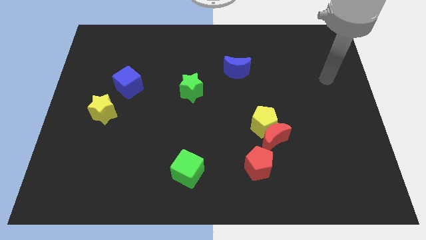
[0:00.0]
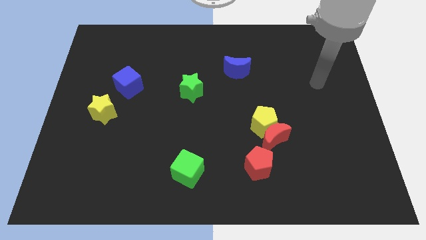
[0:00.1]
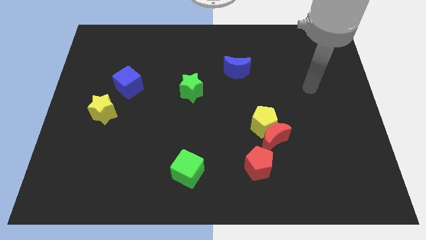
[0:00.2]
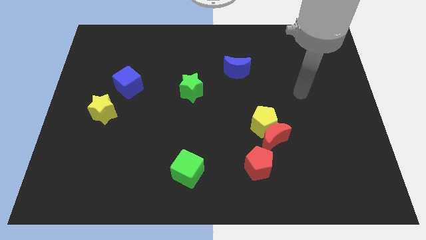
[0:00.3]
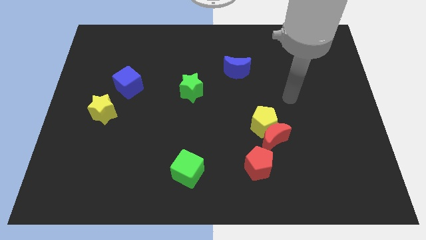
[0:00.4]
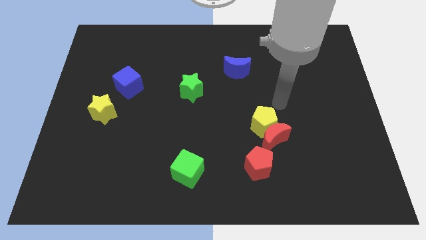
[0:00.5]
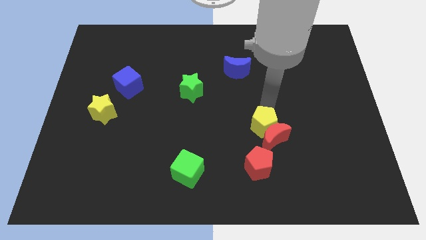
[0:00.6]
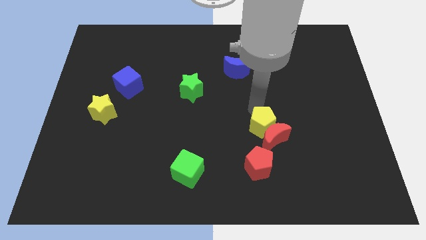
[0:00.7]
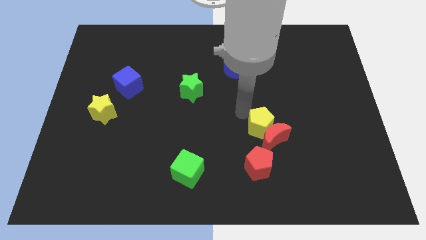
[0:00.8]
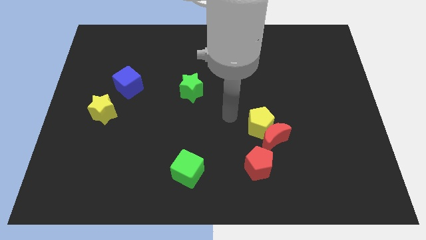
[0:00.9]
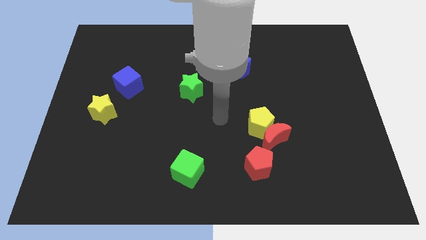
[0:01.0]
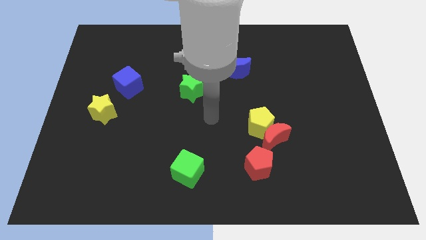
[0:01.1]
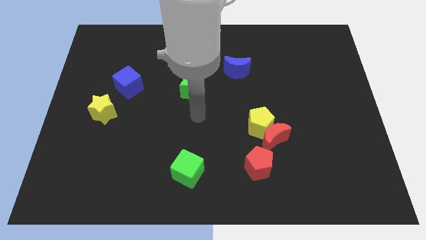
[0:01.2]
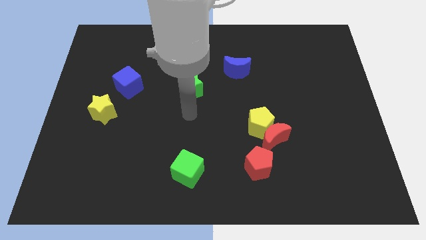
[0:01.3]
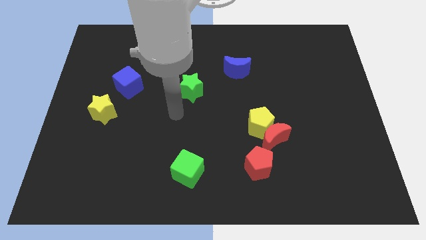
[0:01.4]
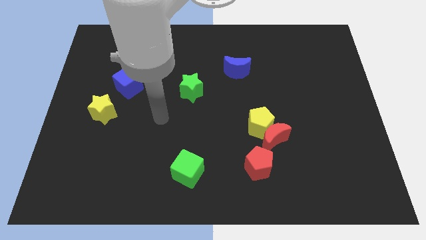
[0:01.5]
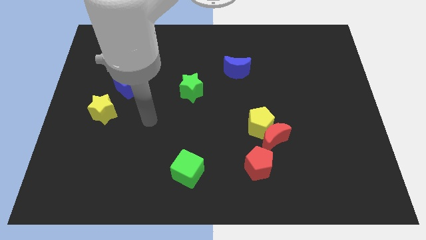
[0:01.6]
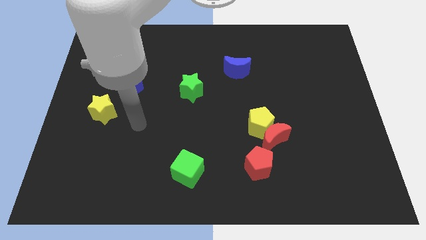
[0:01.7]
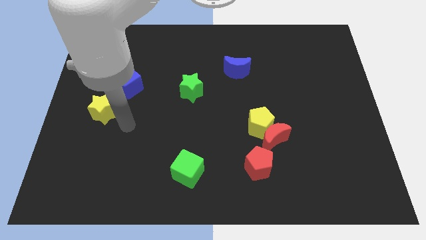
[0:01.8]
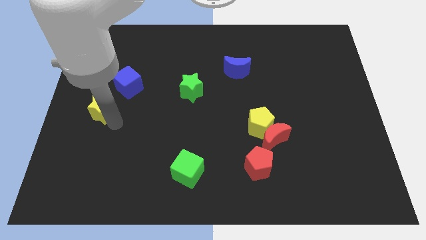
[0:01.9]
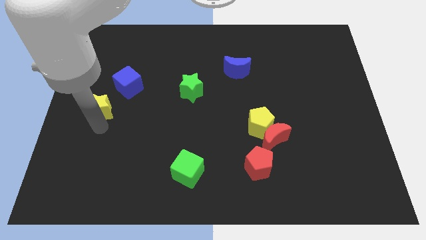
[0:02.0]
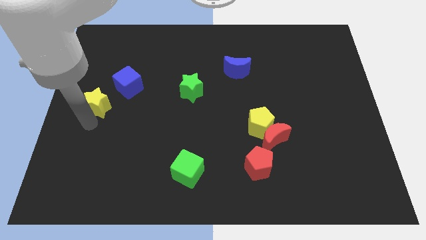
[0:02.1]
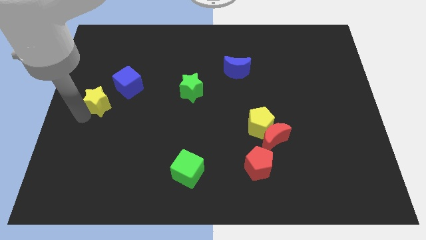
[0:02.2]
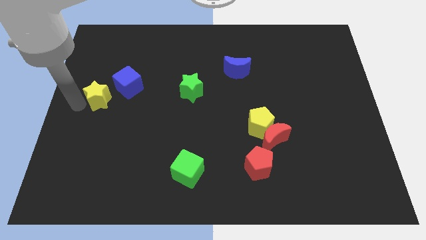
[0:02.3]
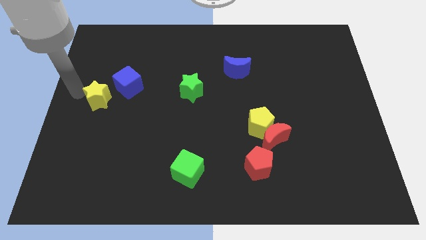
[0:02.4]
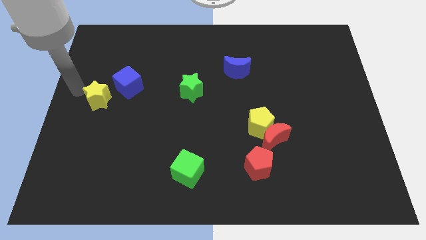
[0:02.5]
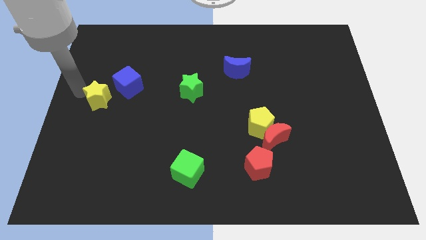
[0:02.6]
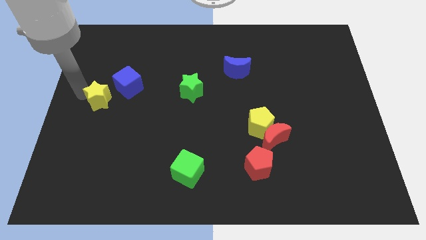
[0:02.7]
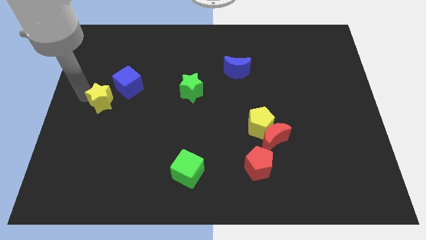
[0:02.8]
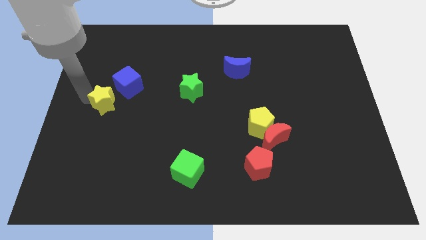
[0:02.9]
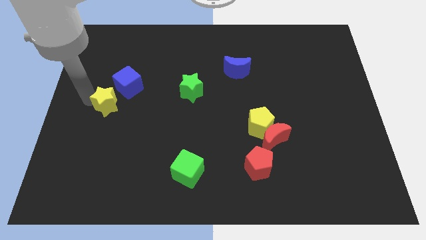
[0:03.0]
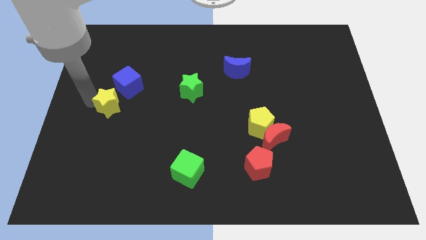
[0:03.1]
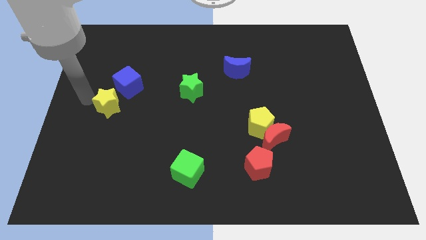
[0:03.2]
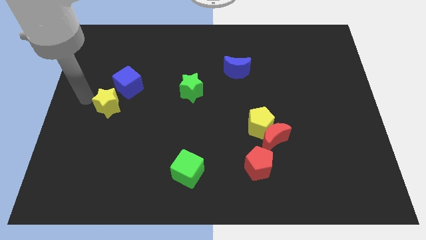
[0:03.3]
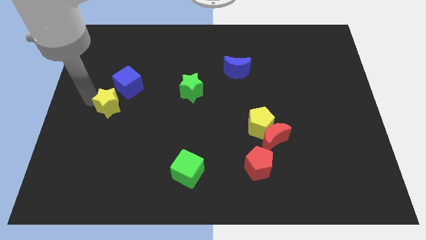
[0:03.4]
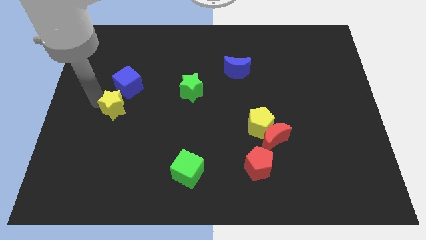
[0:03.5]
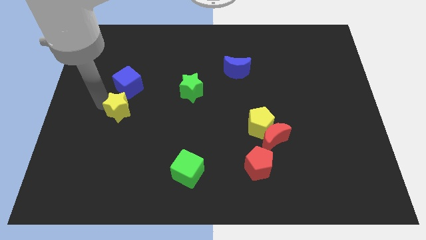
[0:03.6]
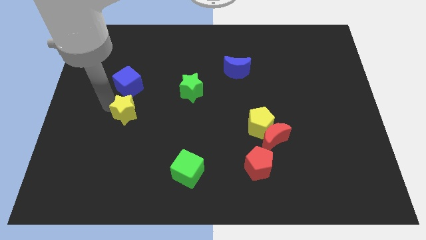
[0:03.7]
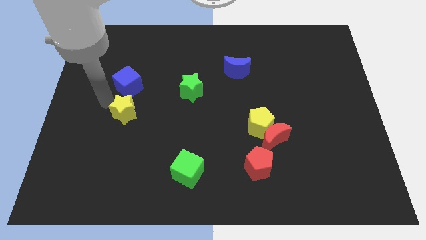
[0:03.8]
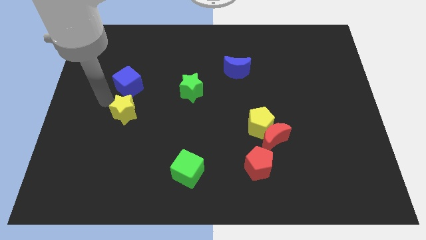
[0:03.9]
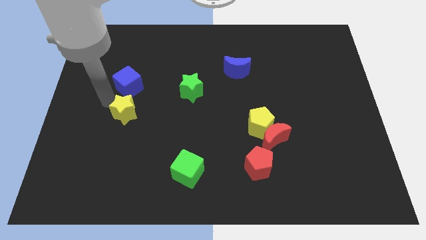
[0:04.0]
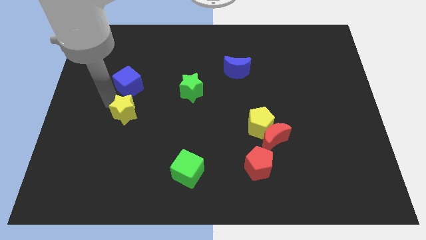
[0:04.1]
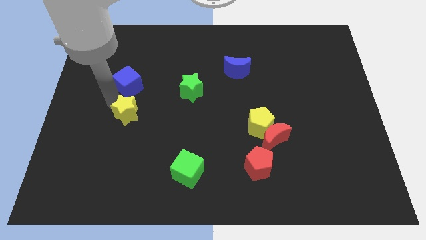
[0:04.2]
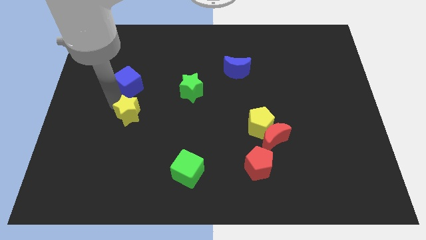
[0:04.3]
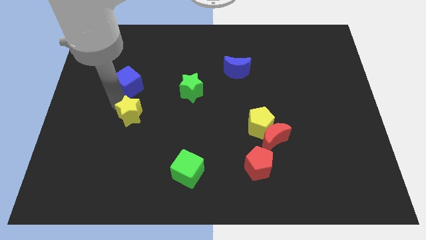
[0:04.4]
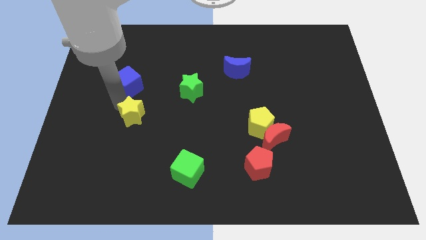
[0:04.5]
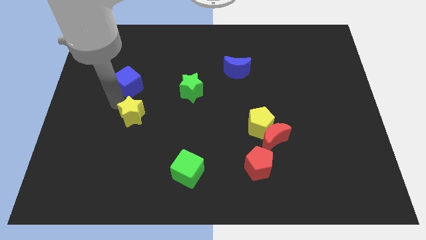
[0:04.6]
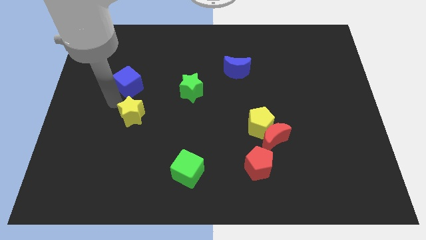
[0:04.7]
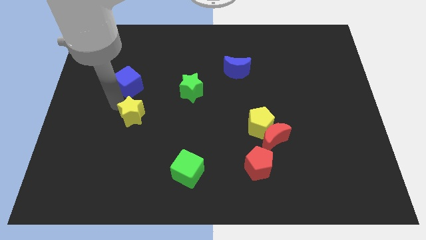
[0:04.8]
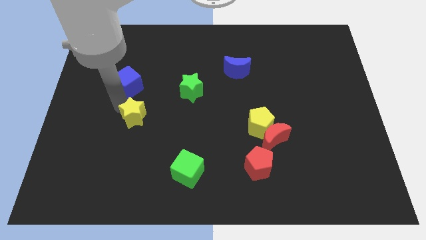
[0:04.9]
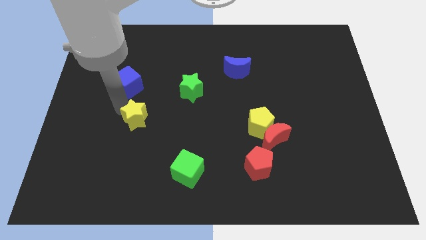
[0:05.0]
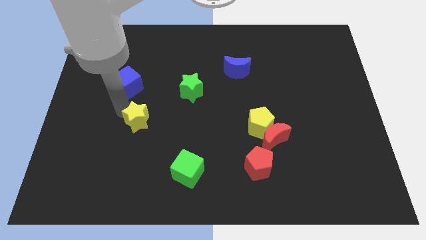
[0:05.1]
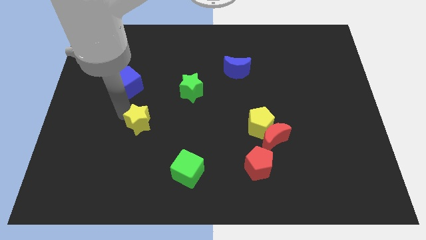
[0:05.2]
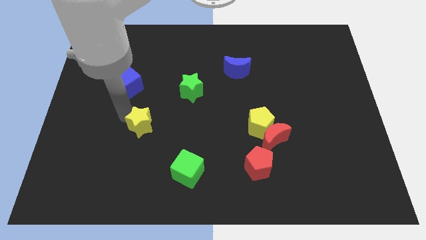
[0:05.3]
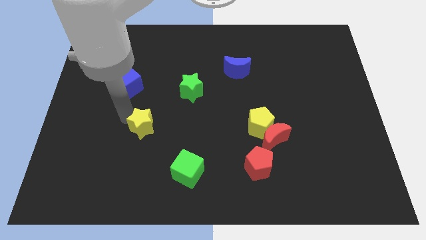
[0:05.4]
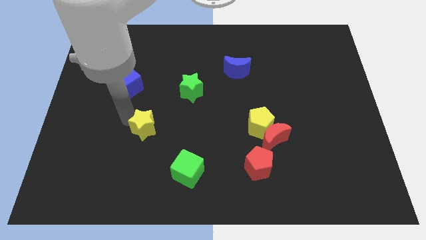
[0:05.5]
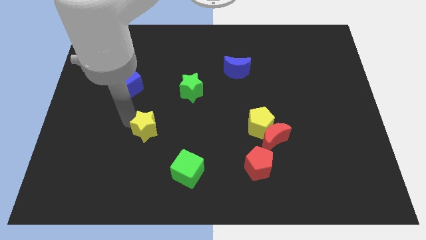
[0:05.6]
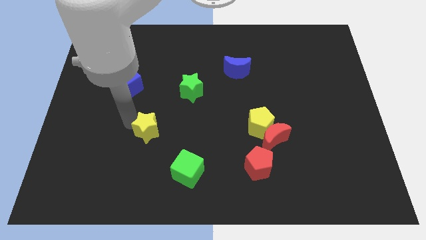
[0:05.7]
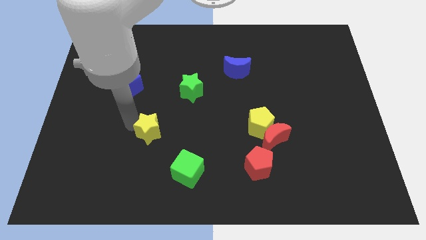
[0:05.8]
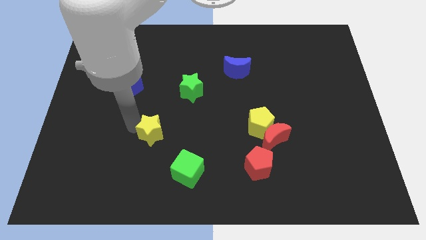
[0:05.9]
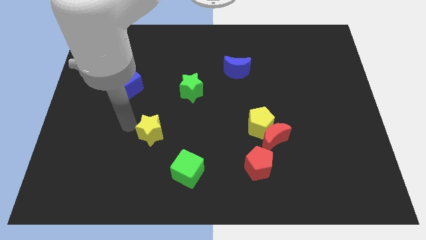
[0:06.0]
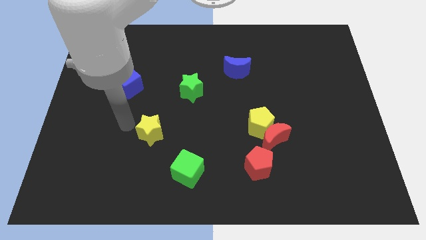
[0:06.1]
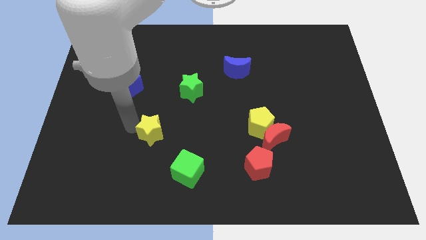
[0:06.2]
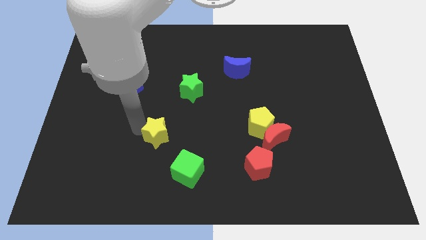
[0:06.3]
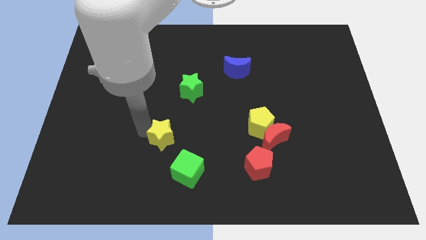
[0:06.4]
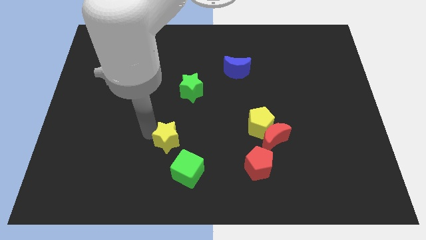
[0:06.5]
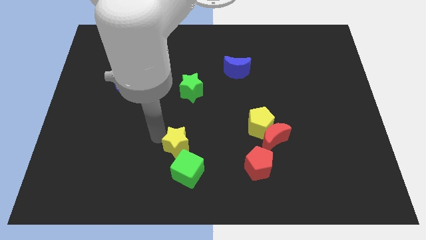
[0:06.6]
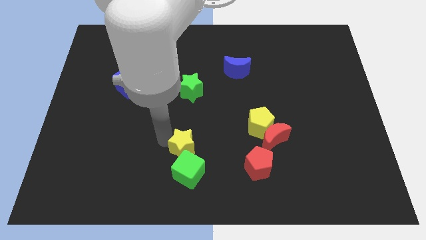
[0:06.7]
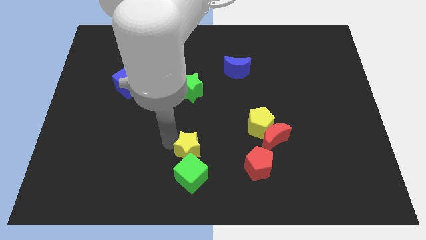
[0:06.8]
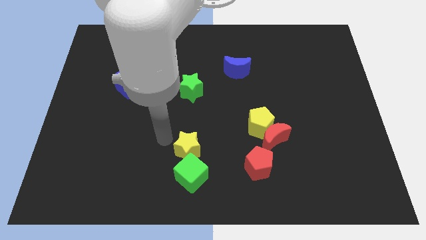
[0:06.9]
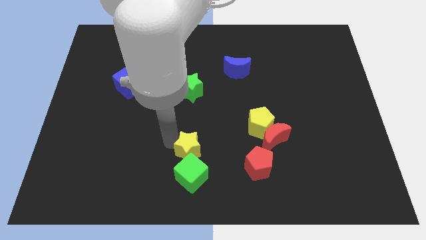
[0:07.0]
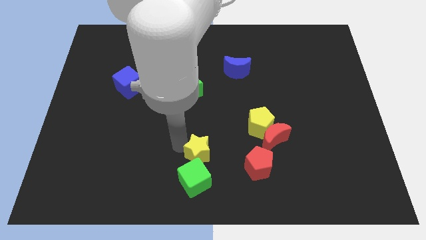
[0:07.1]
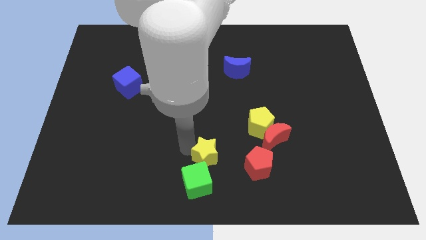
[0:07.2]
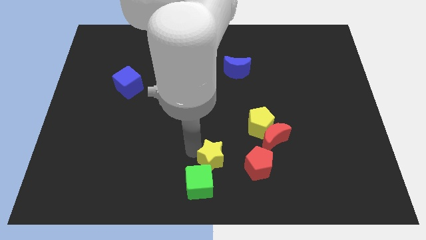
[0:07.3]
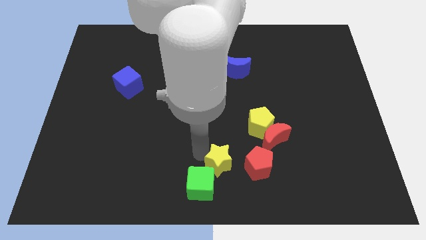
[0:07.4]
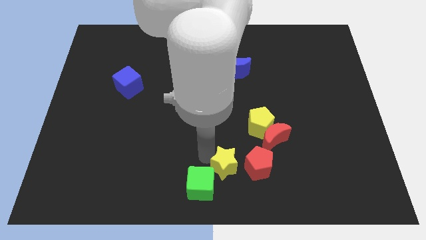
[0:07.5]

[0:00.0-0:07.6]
push the yellow star to the bottom left of the red moon
